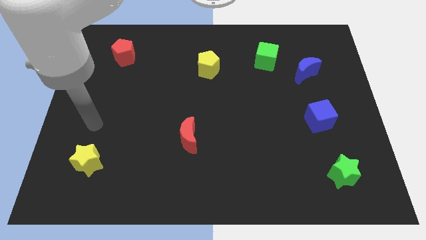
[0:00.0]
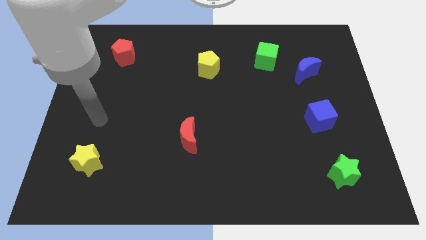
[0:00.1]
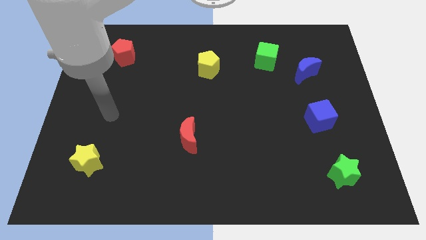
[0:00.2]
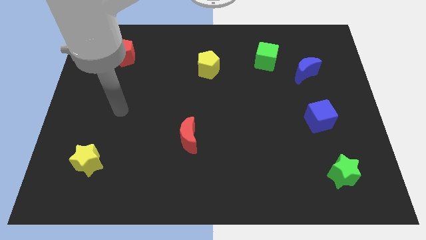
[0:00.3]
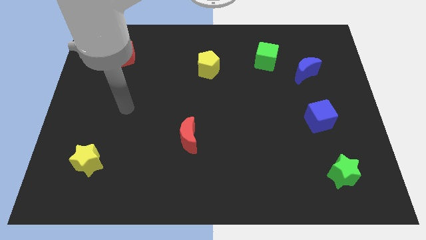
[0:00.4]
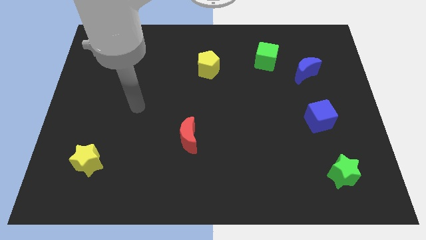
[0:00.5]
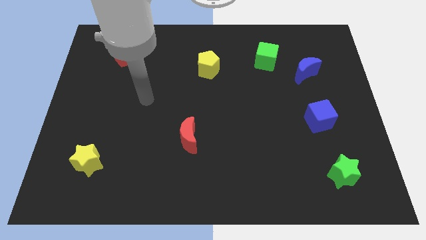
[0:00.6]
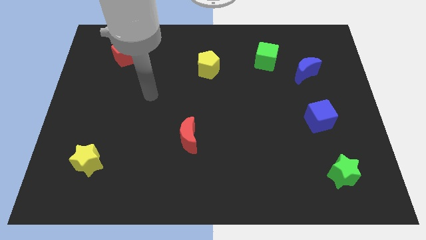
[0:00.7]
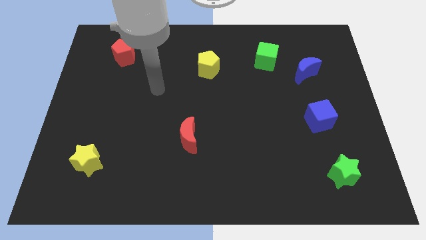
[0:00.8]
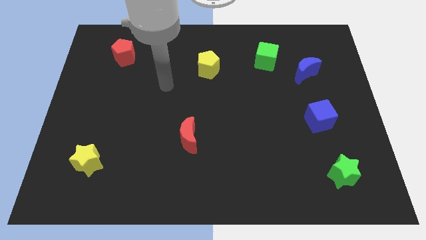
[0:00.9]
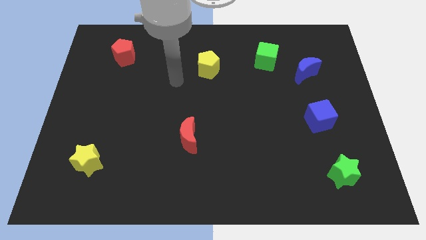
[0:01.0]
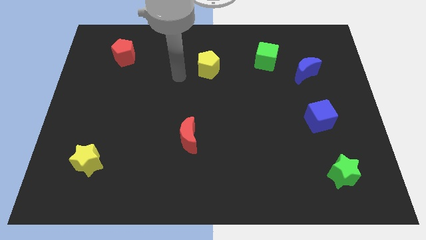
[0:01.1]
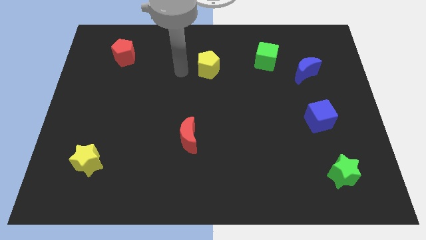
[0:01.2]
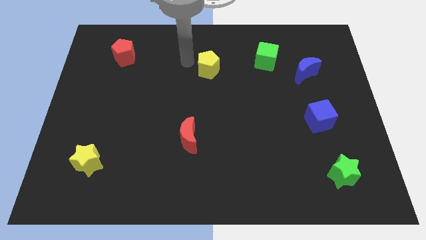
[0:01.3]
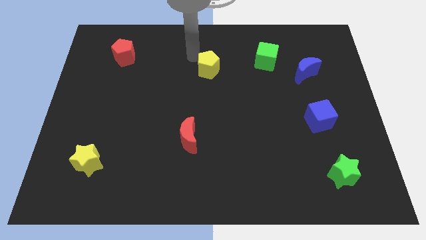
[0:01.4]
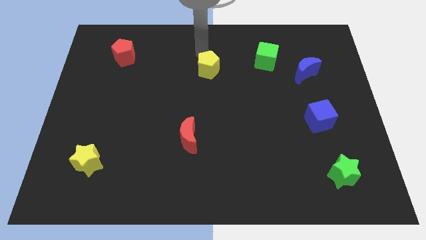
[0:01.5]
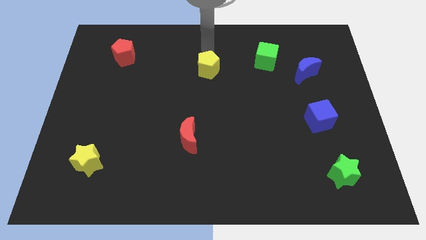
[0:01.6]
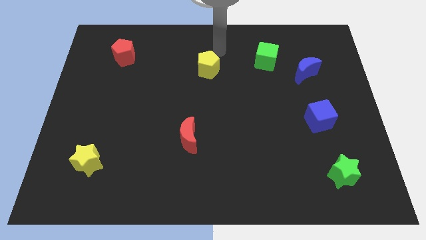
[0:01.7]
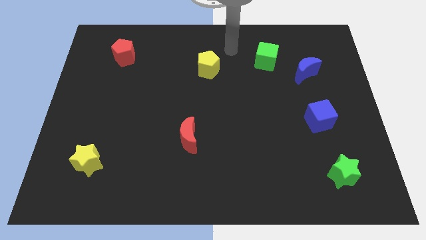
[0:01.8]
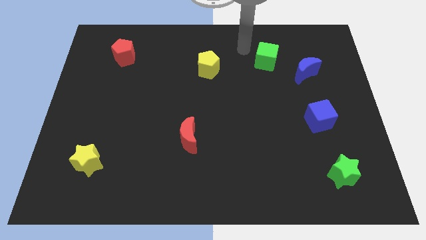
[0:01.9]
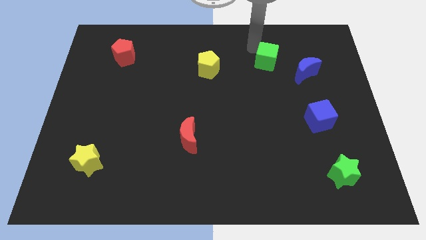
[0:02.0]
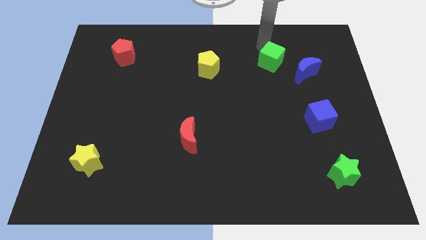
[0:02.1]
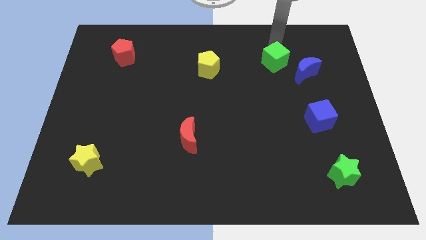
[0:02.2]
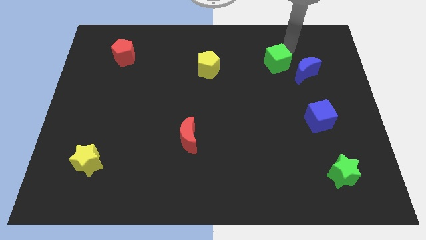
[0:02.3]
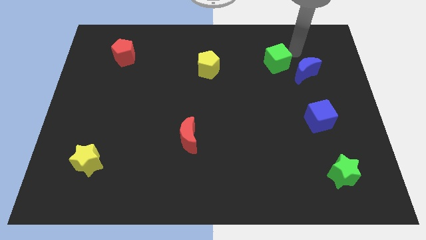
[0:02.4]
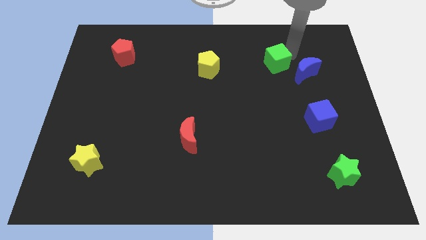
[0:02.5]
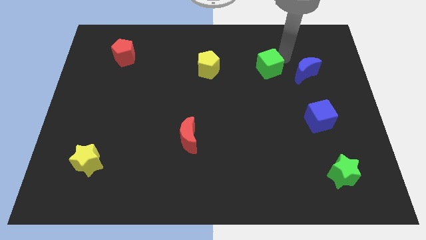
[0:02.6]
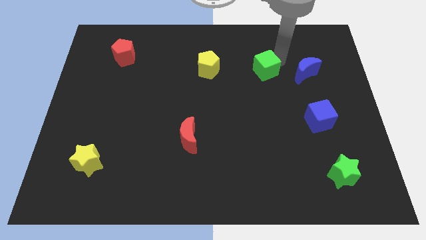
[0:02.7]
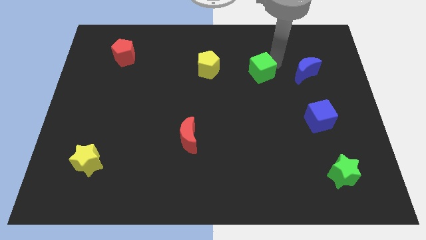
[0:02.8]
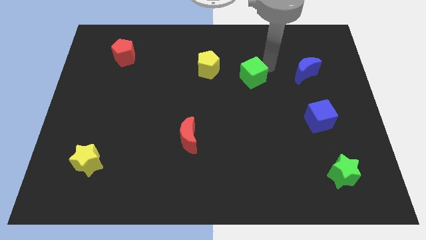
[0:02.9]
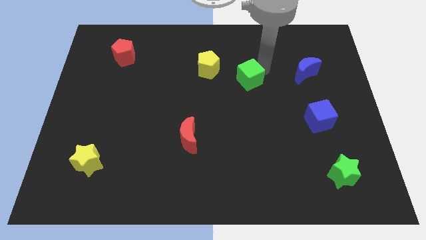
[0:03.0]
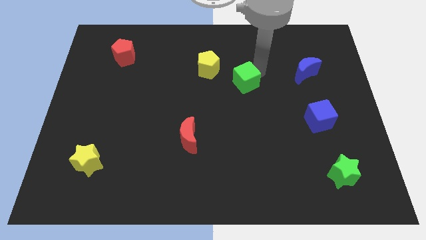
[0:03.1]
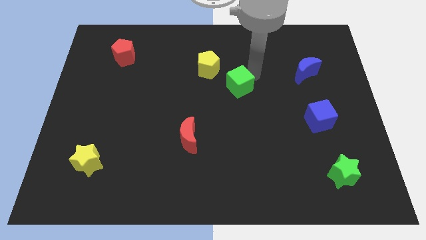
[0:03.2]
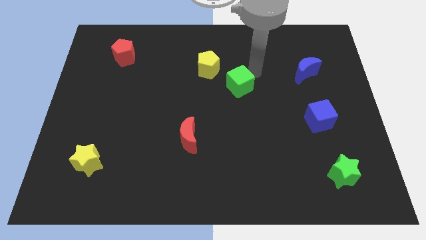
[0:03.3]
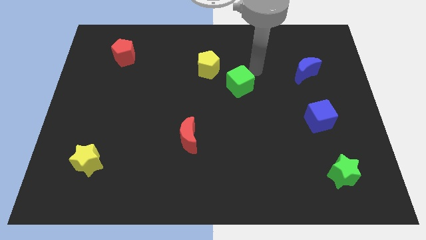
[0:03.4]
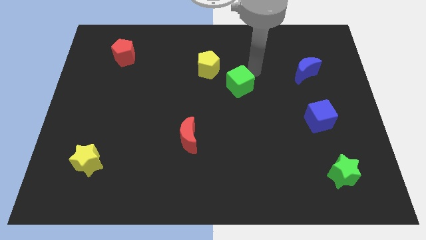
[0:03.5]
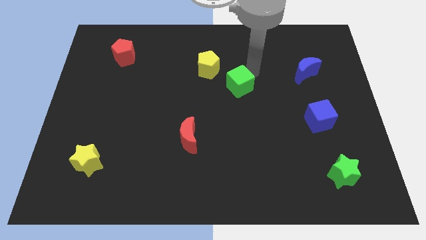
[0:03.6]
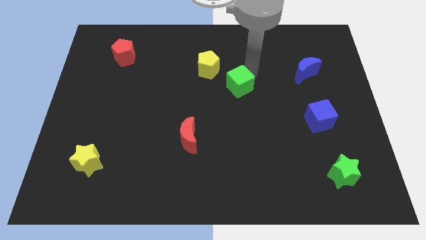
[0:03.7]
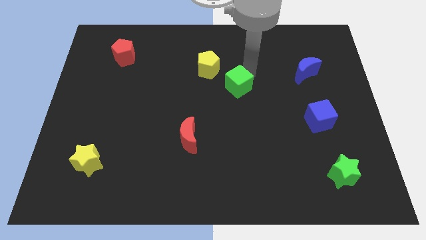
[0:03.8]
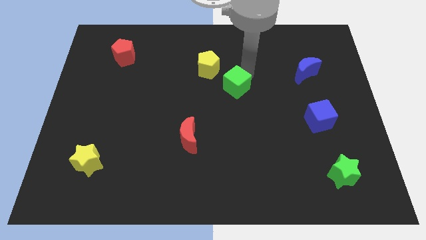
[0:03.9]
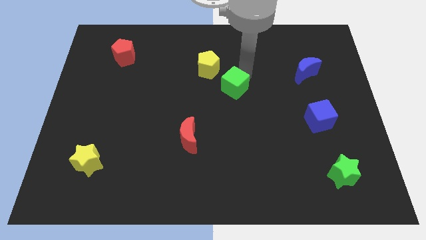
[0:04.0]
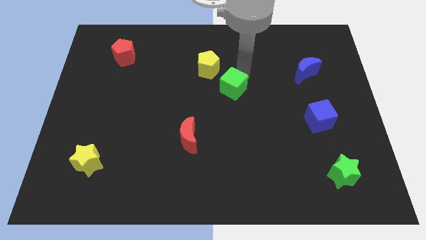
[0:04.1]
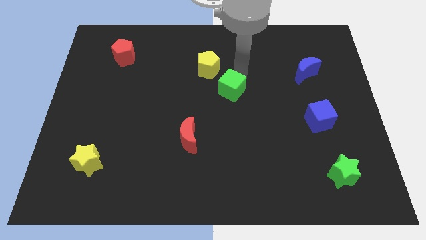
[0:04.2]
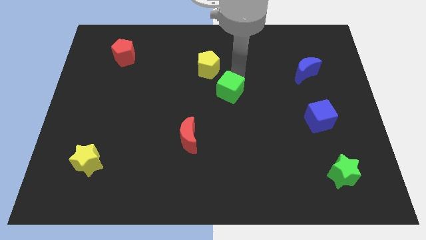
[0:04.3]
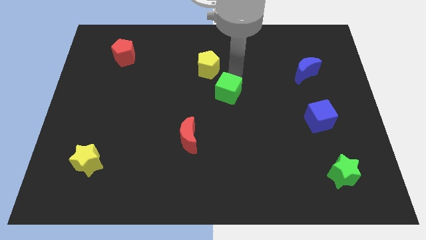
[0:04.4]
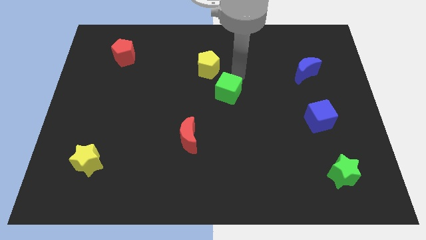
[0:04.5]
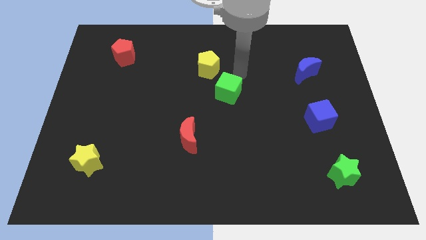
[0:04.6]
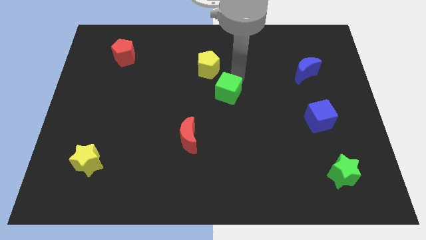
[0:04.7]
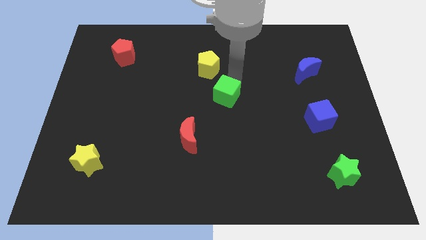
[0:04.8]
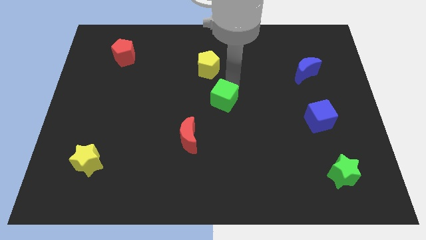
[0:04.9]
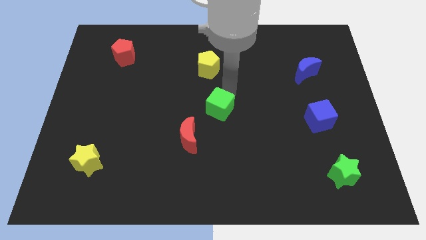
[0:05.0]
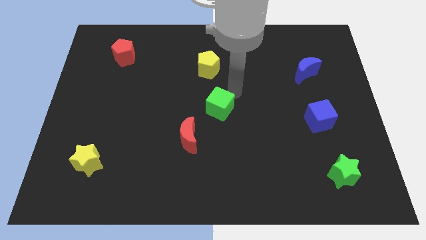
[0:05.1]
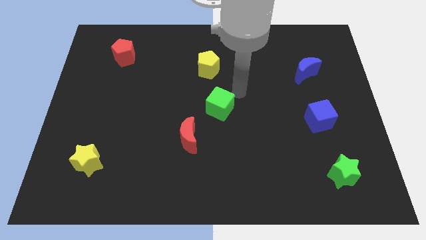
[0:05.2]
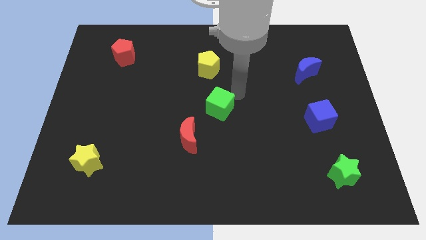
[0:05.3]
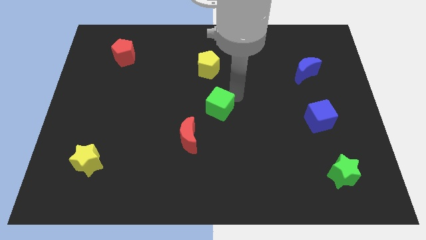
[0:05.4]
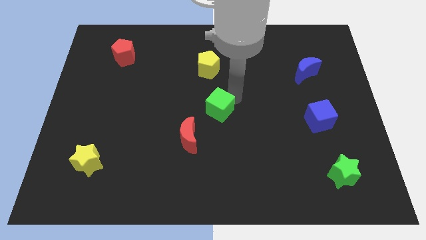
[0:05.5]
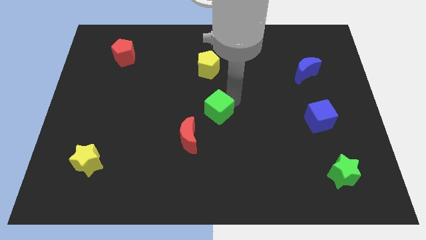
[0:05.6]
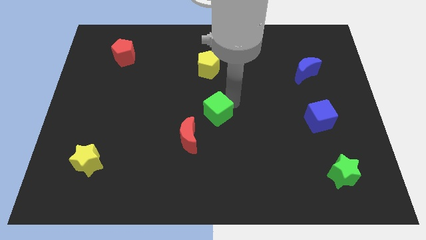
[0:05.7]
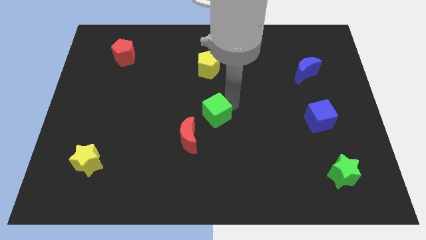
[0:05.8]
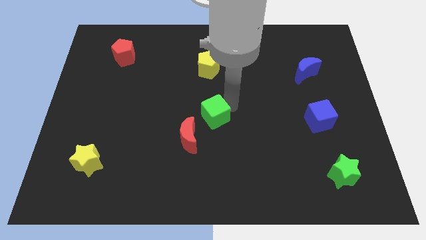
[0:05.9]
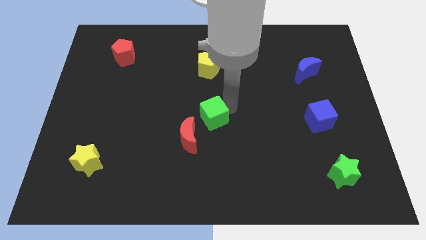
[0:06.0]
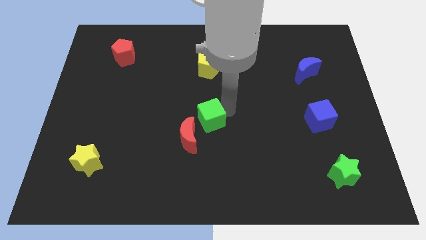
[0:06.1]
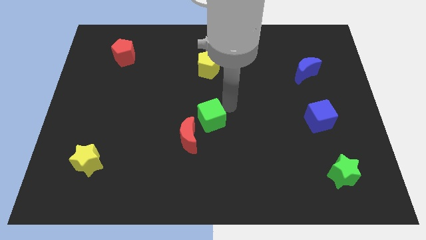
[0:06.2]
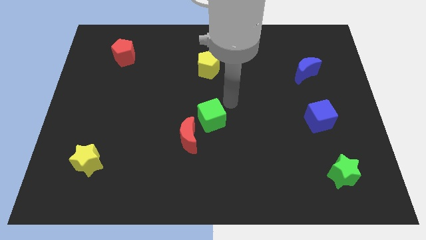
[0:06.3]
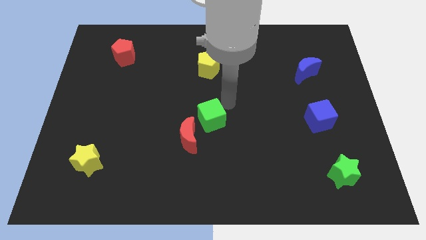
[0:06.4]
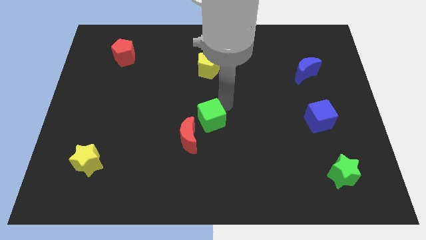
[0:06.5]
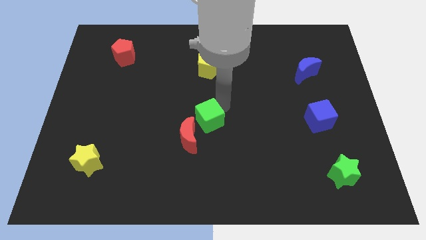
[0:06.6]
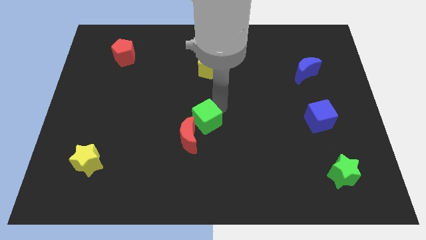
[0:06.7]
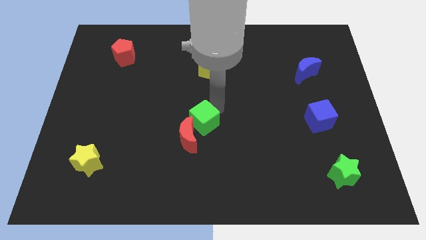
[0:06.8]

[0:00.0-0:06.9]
put the green cube towards the red moon

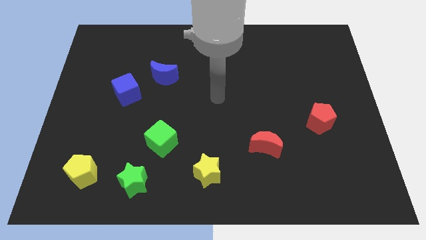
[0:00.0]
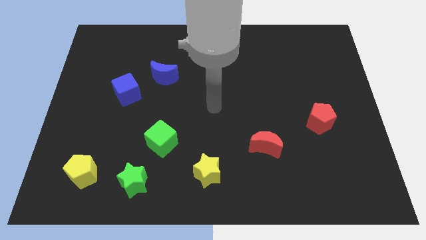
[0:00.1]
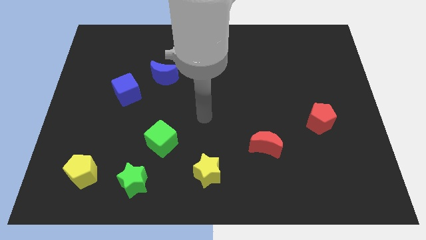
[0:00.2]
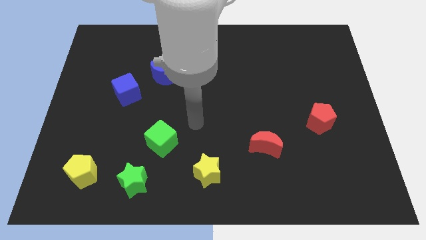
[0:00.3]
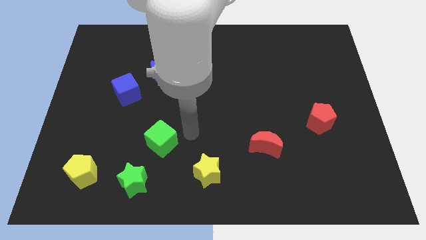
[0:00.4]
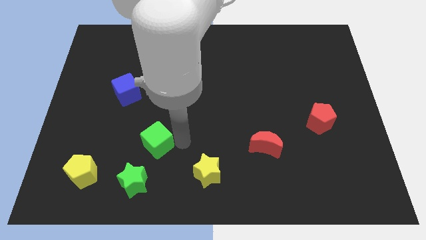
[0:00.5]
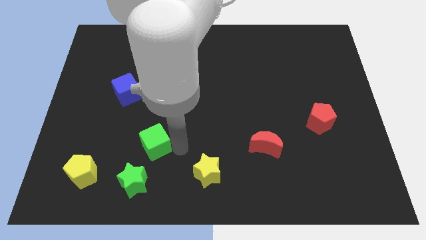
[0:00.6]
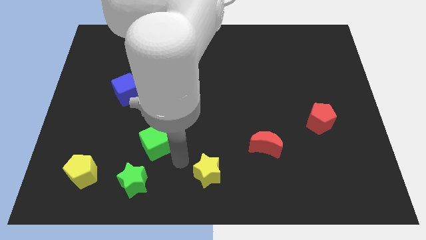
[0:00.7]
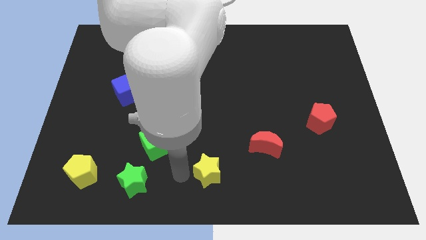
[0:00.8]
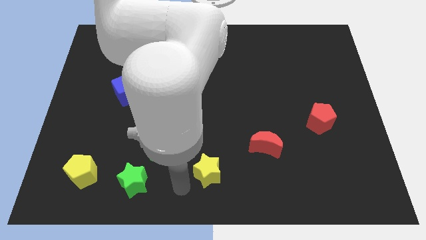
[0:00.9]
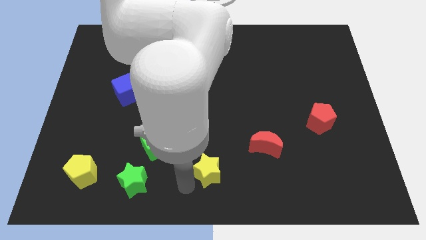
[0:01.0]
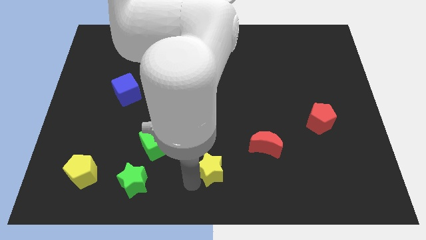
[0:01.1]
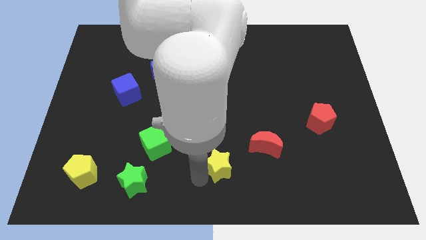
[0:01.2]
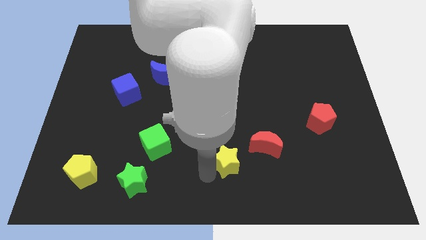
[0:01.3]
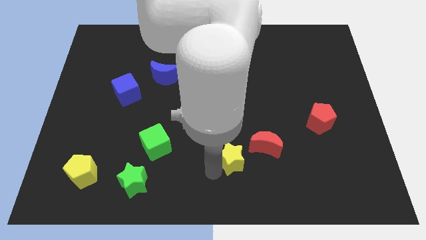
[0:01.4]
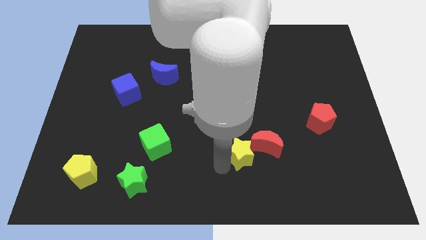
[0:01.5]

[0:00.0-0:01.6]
move the yellow star to the red moon
